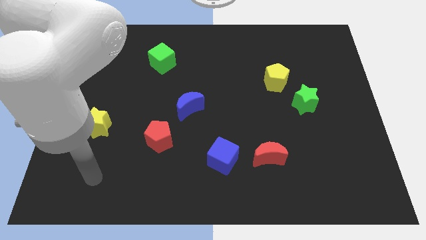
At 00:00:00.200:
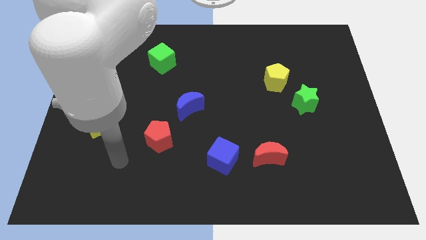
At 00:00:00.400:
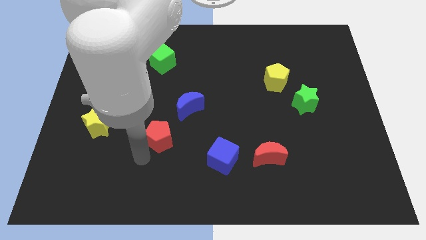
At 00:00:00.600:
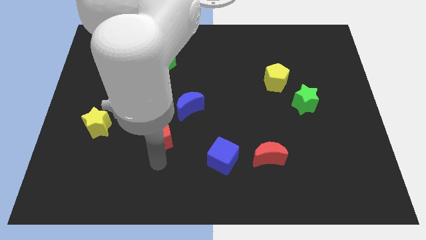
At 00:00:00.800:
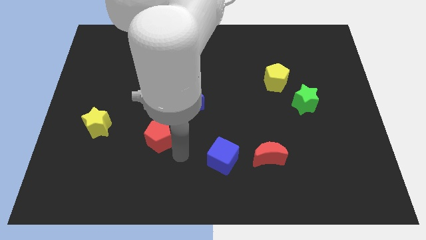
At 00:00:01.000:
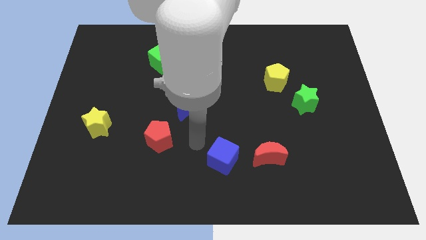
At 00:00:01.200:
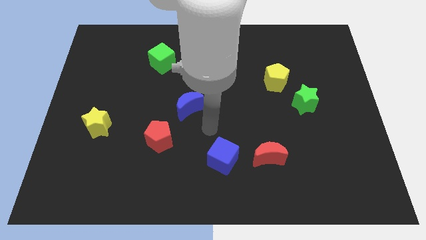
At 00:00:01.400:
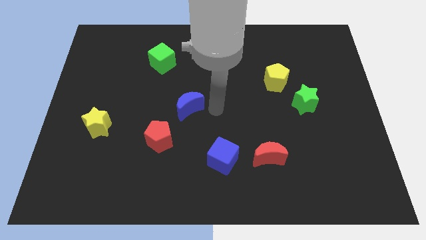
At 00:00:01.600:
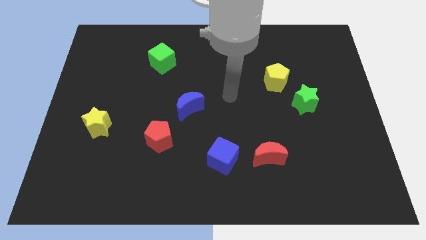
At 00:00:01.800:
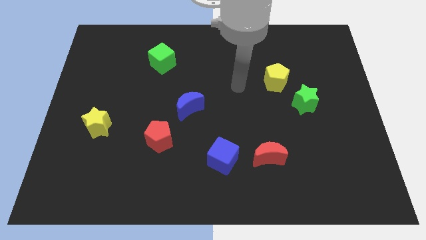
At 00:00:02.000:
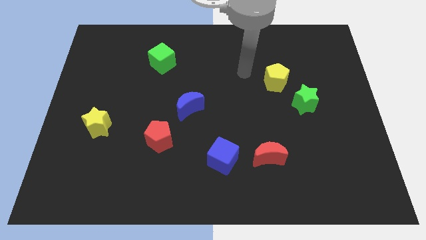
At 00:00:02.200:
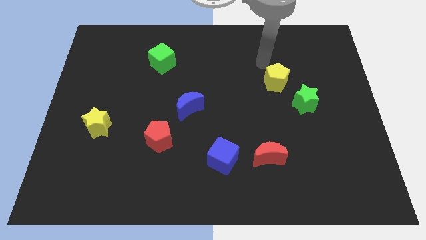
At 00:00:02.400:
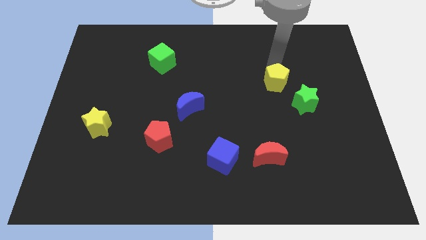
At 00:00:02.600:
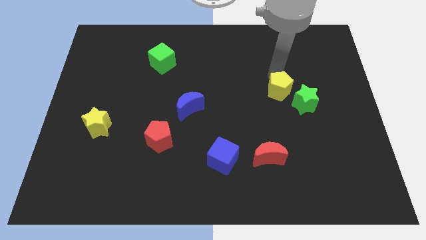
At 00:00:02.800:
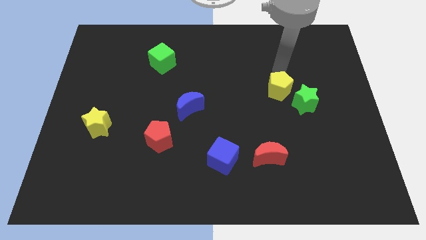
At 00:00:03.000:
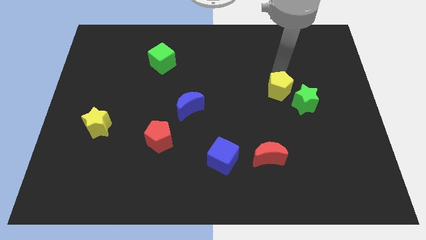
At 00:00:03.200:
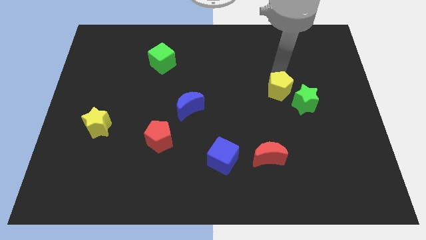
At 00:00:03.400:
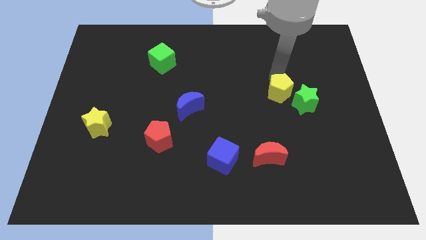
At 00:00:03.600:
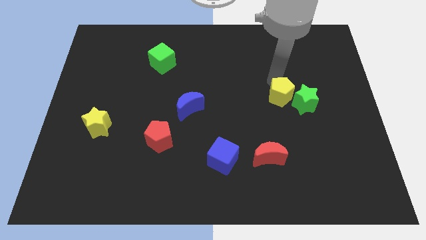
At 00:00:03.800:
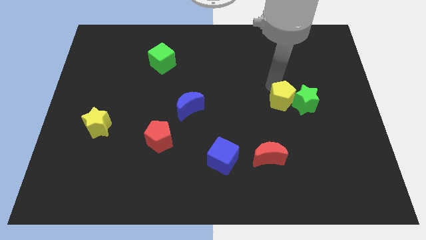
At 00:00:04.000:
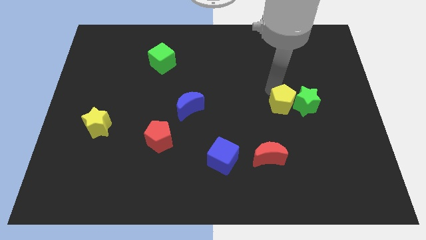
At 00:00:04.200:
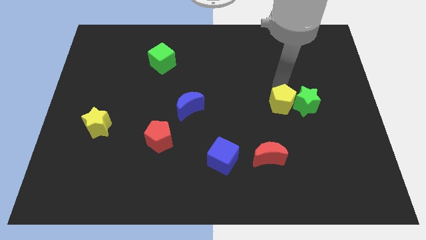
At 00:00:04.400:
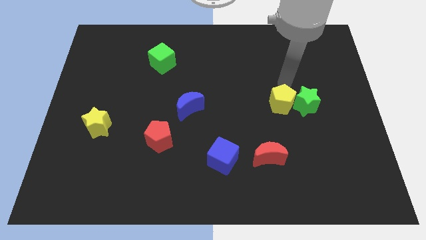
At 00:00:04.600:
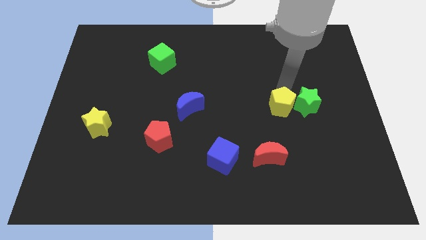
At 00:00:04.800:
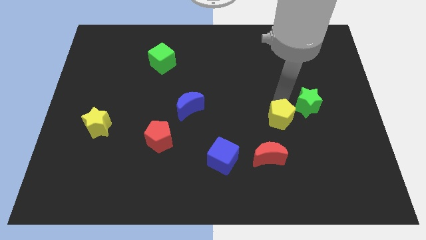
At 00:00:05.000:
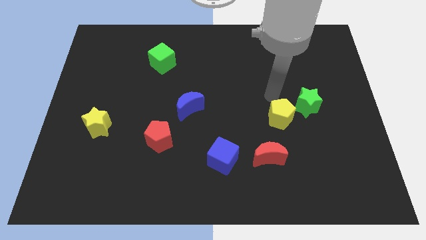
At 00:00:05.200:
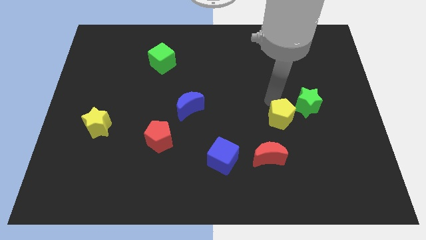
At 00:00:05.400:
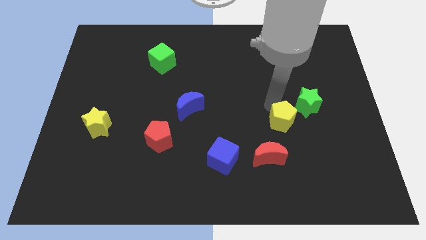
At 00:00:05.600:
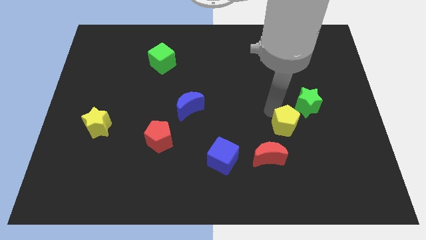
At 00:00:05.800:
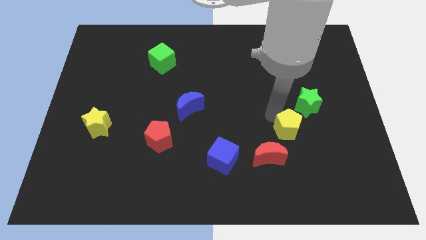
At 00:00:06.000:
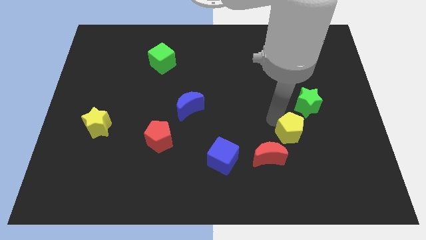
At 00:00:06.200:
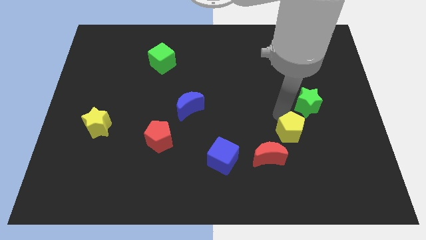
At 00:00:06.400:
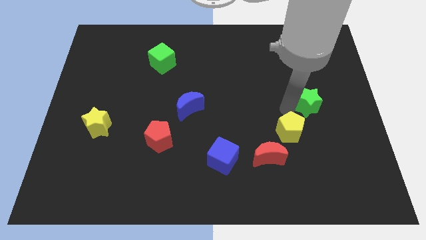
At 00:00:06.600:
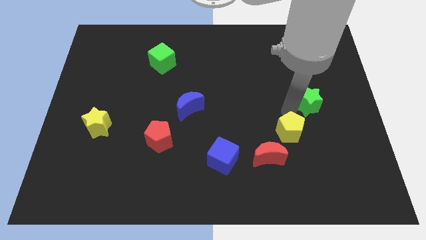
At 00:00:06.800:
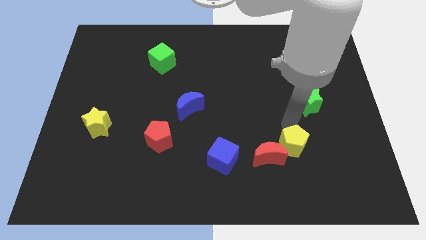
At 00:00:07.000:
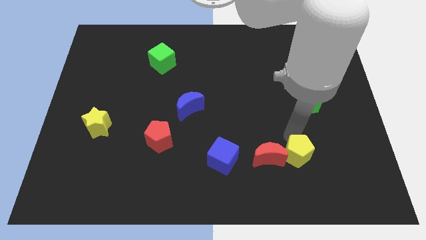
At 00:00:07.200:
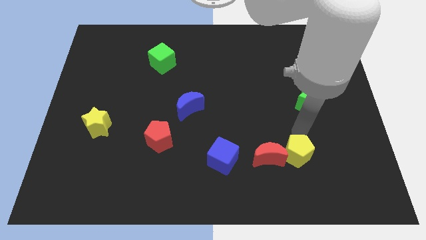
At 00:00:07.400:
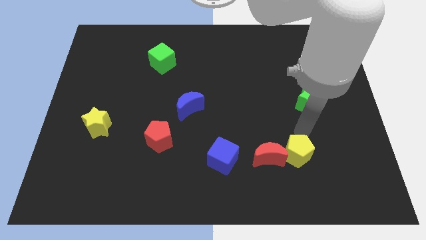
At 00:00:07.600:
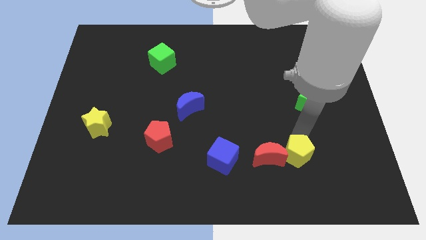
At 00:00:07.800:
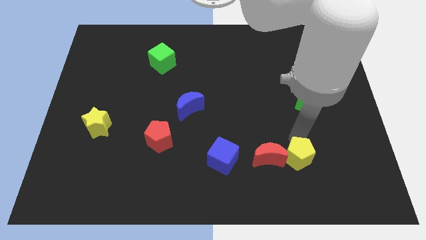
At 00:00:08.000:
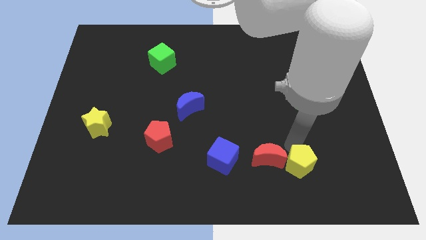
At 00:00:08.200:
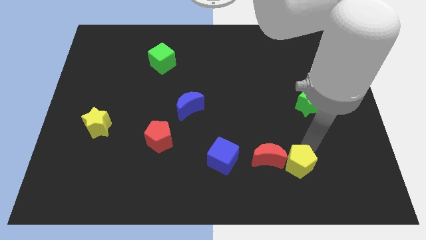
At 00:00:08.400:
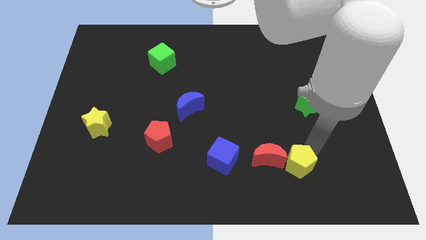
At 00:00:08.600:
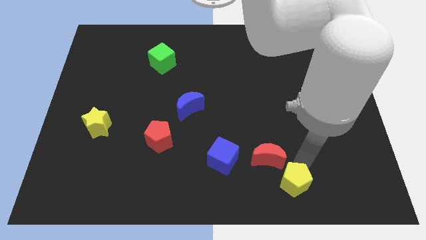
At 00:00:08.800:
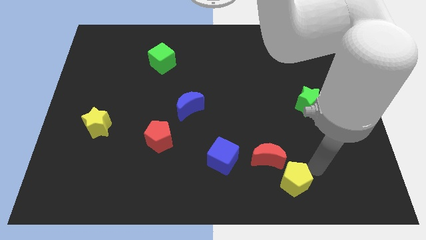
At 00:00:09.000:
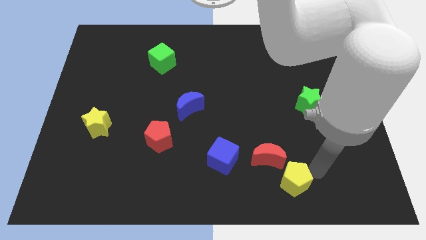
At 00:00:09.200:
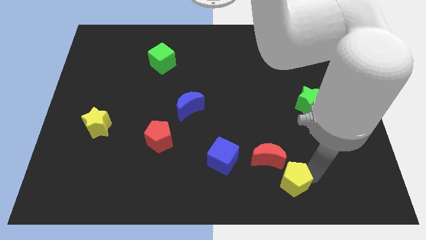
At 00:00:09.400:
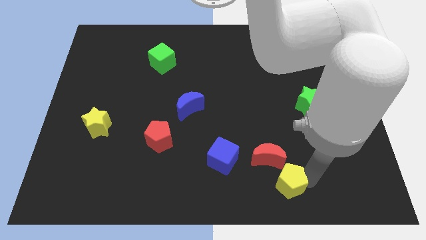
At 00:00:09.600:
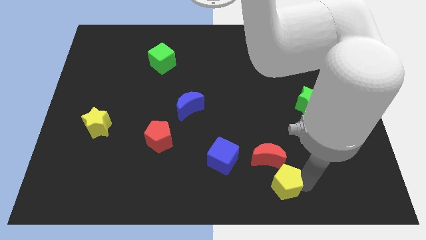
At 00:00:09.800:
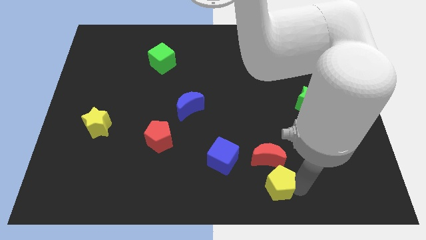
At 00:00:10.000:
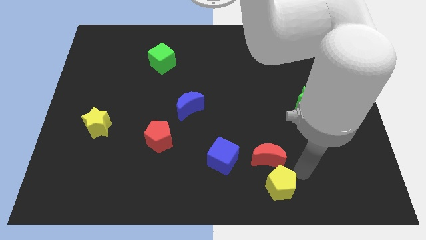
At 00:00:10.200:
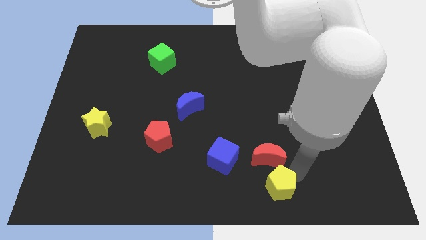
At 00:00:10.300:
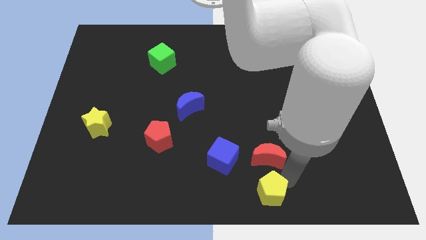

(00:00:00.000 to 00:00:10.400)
put the yellow pentagon to the bottom
